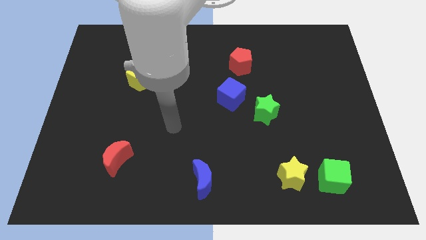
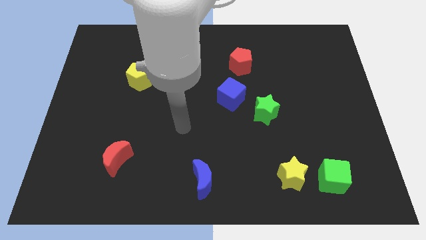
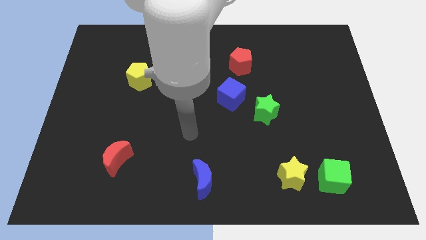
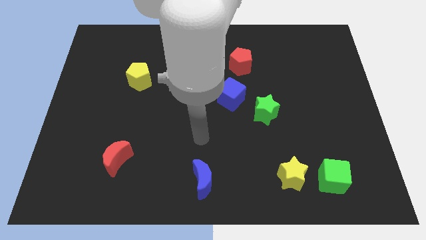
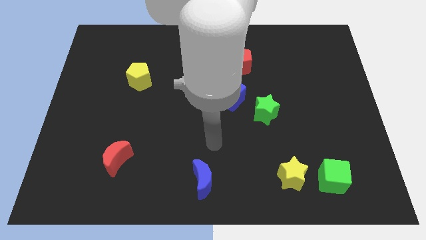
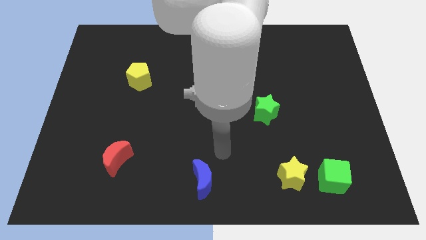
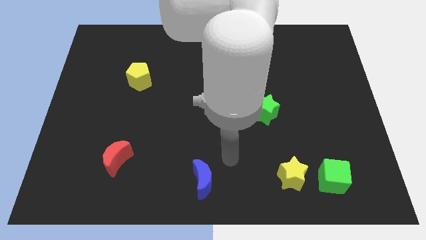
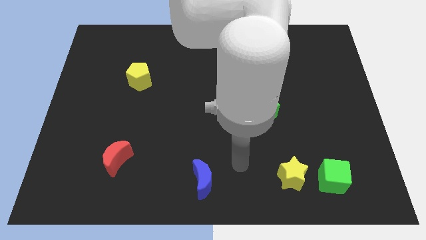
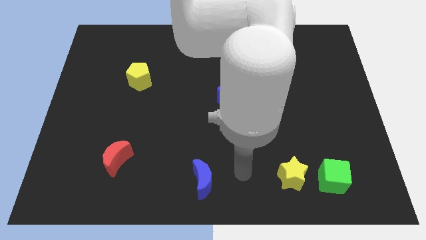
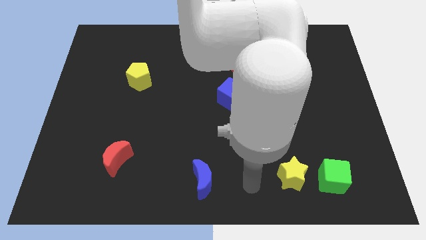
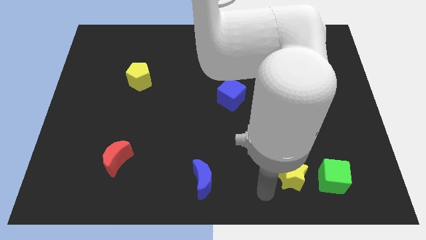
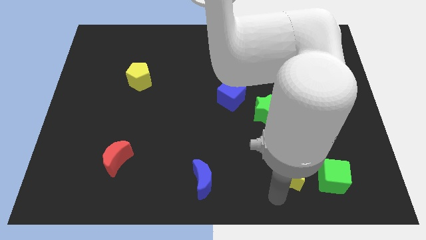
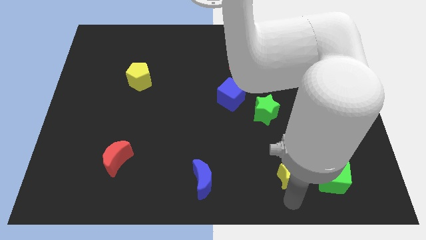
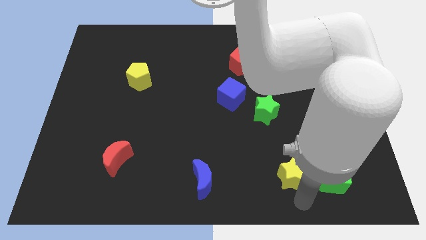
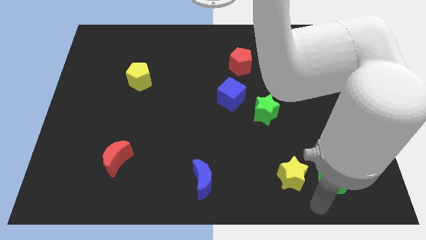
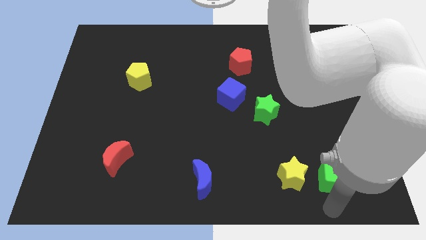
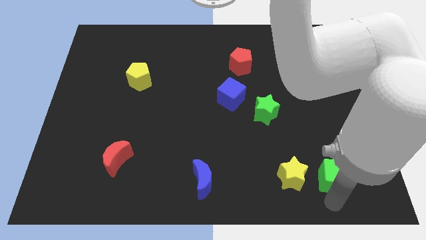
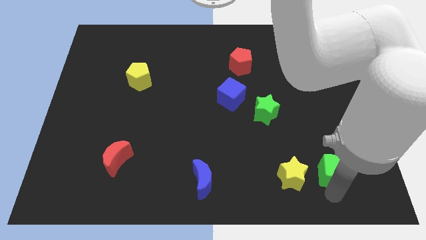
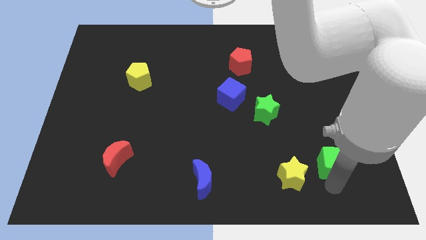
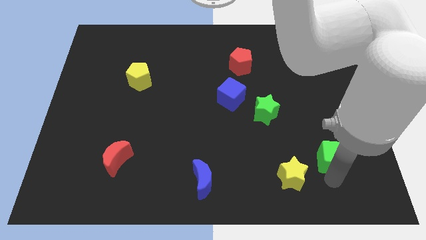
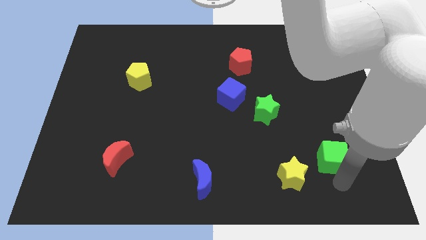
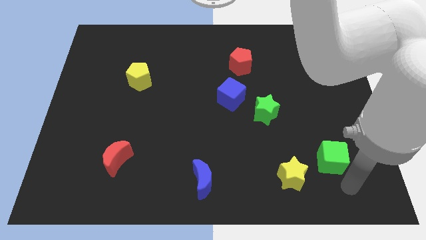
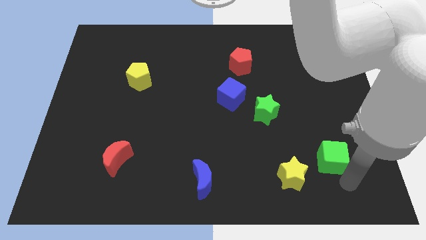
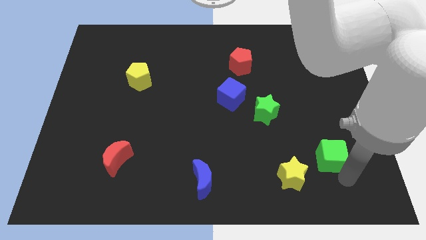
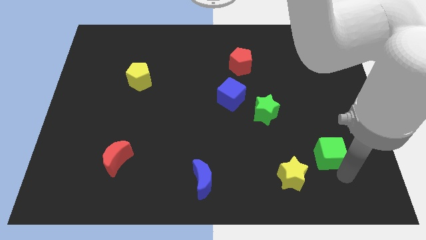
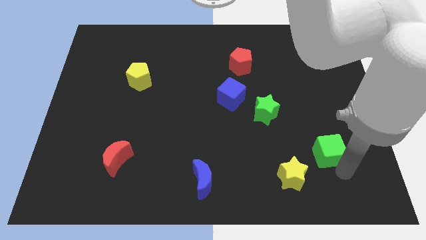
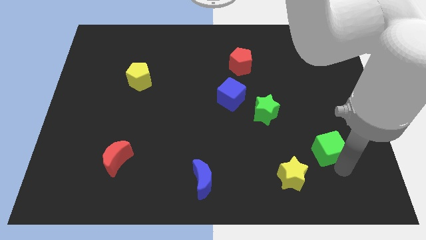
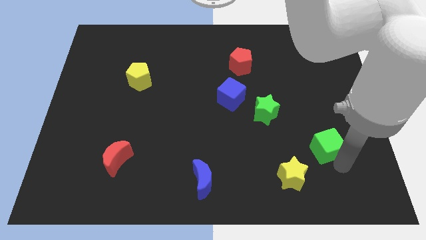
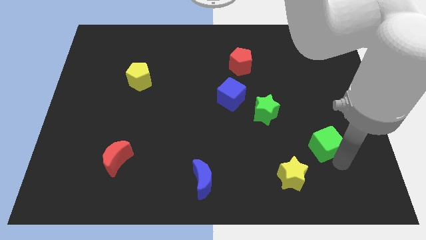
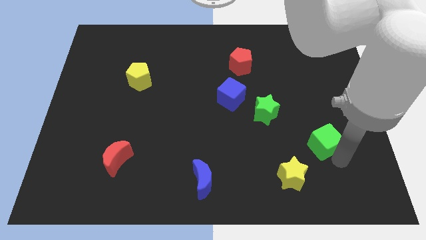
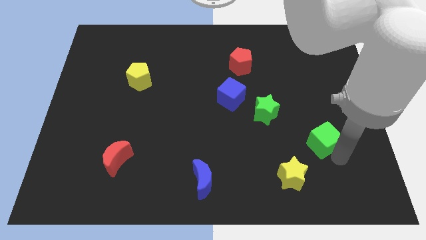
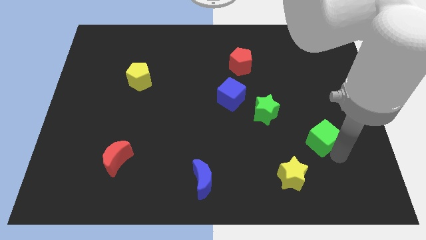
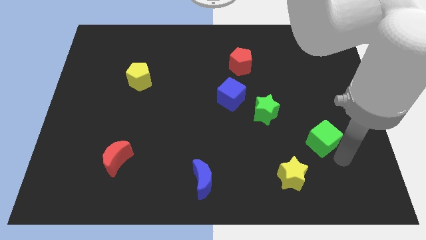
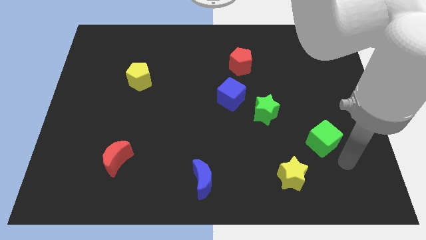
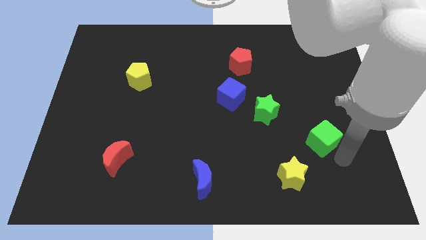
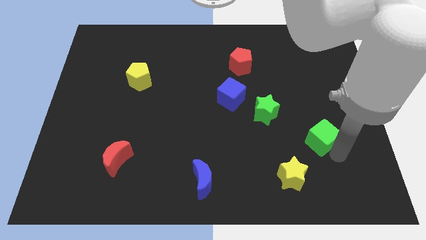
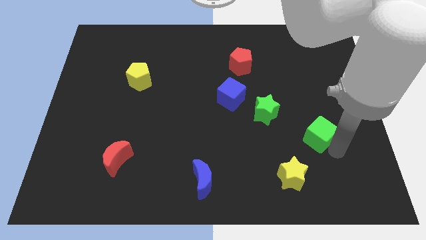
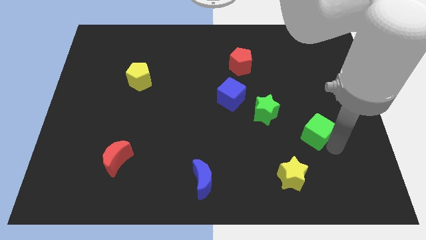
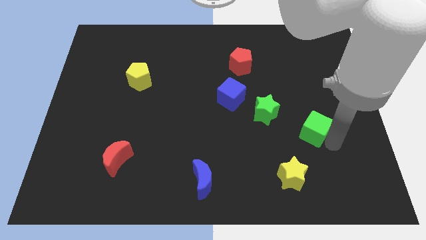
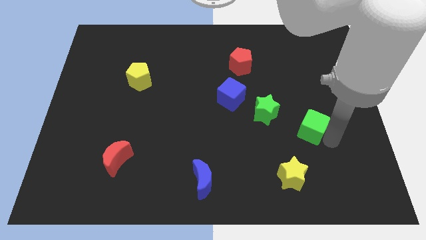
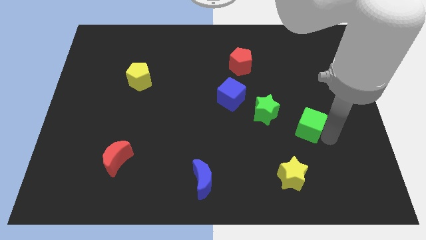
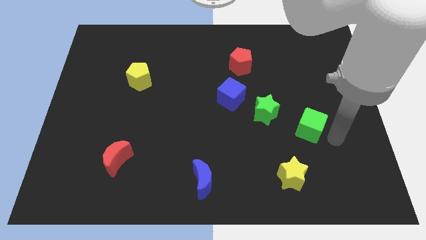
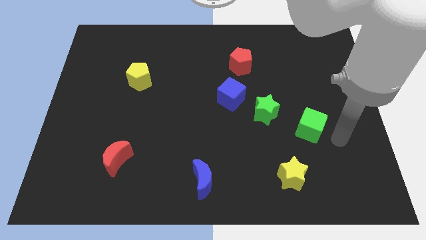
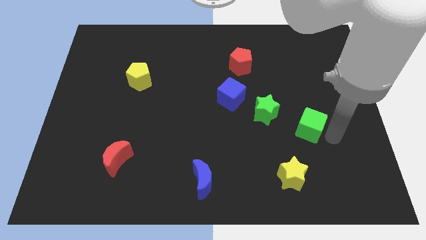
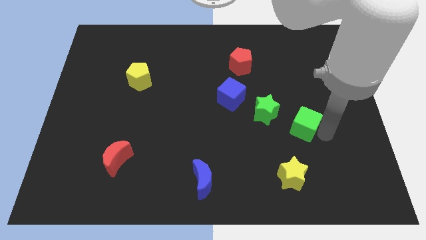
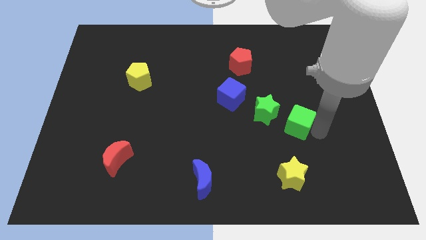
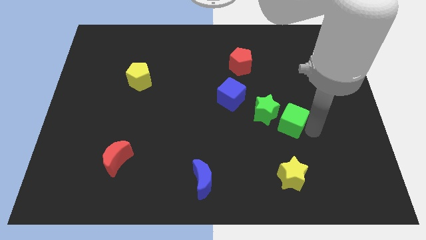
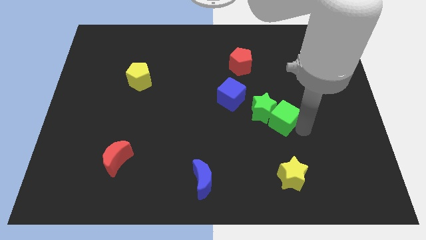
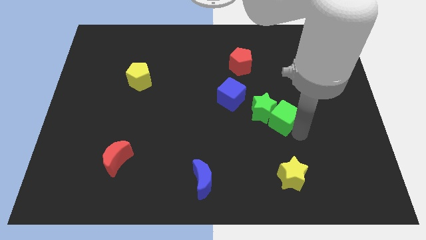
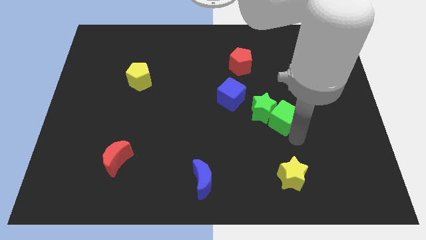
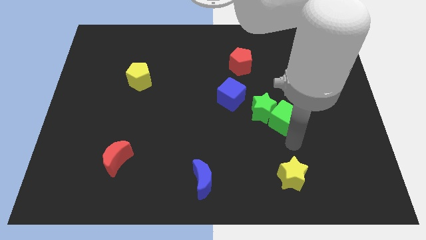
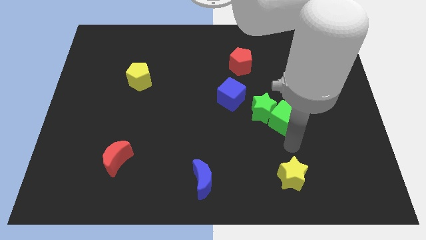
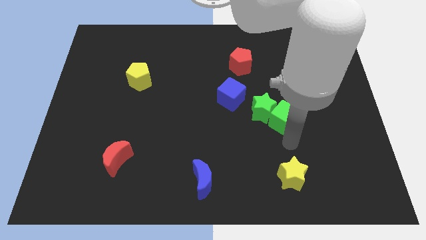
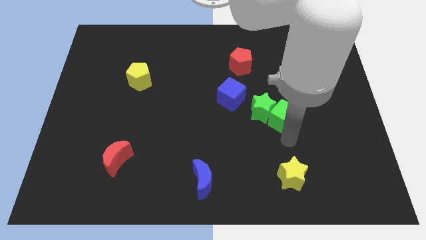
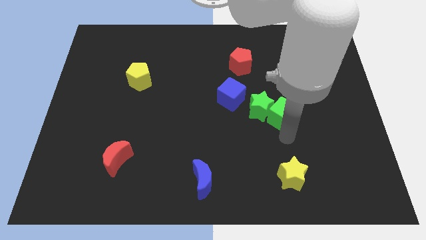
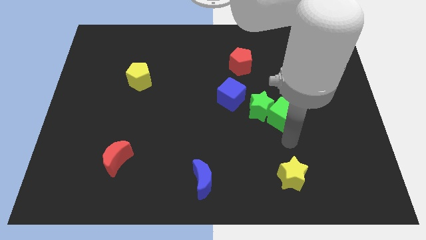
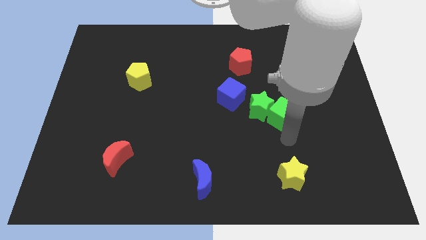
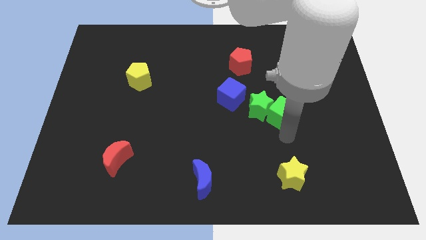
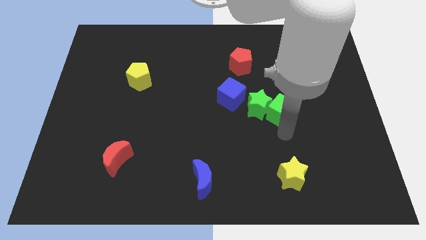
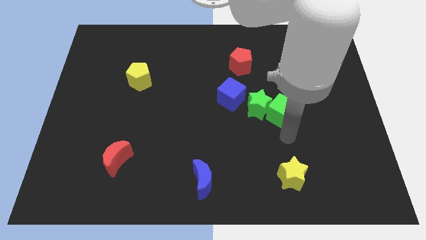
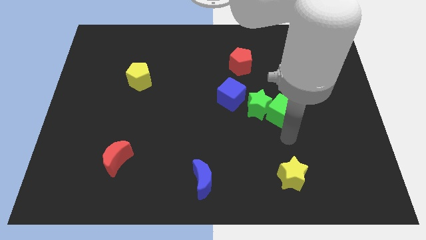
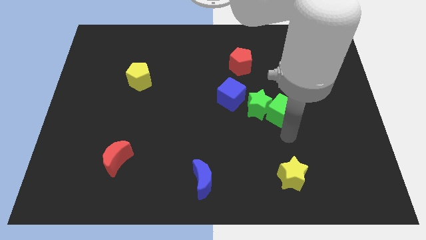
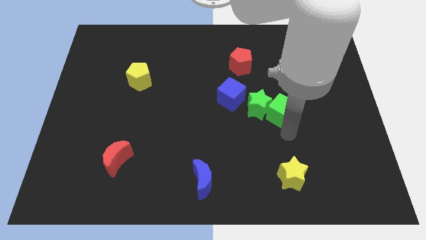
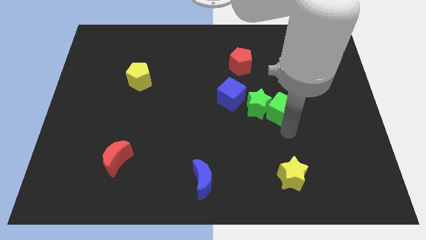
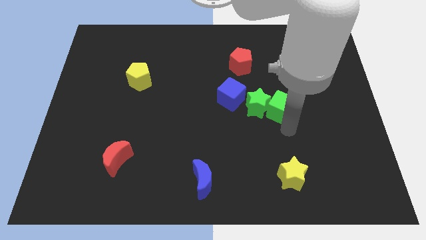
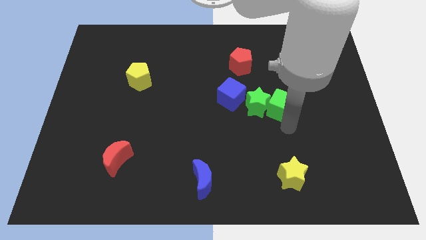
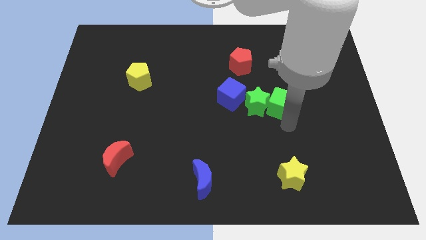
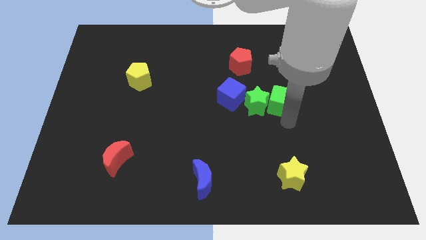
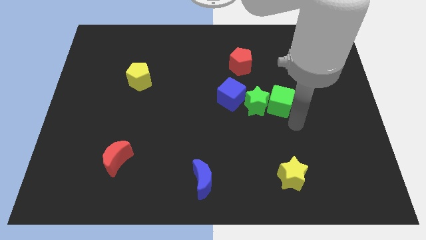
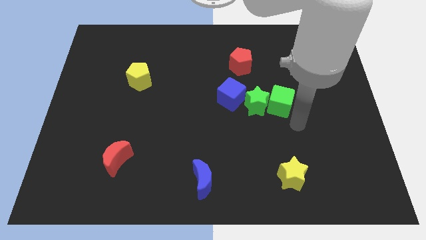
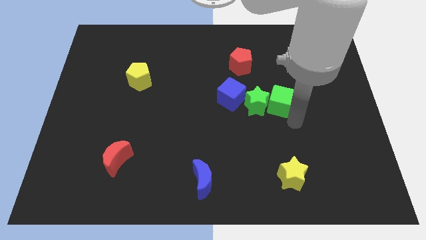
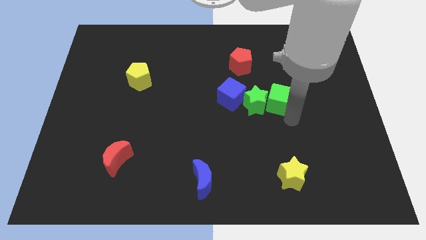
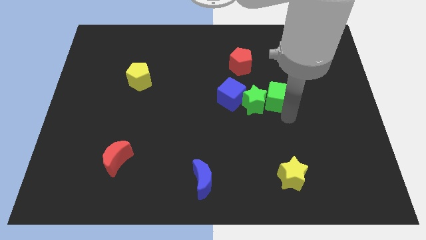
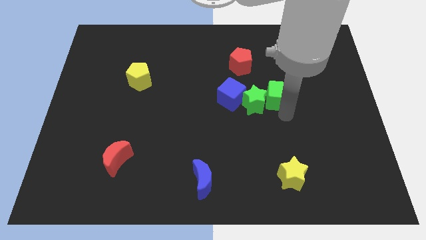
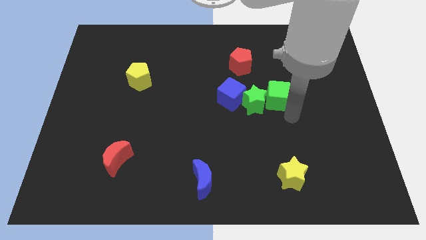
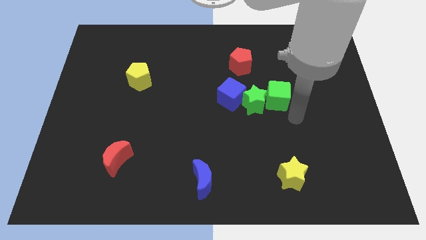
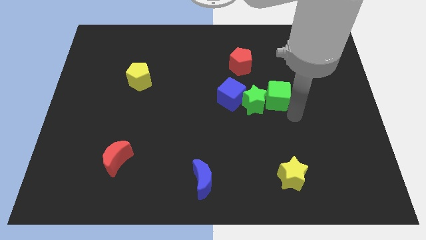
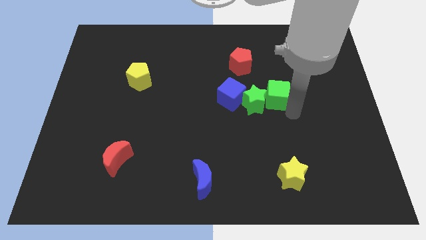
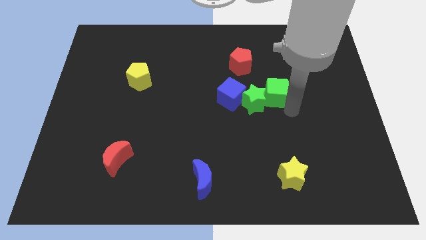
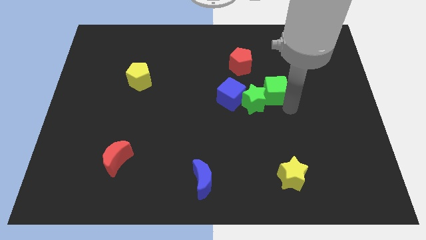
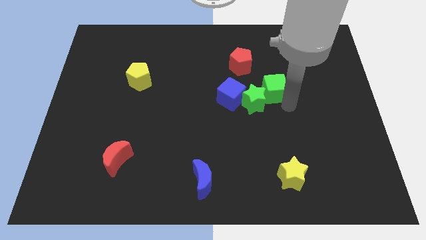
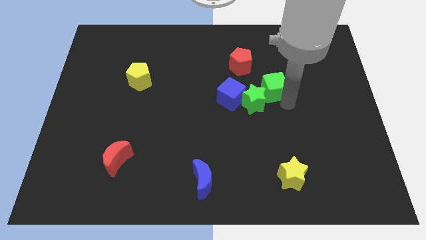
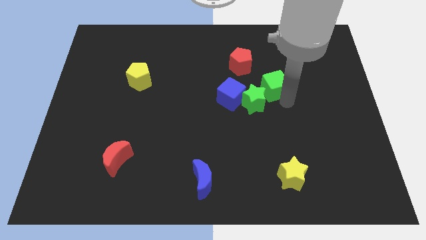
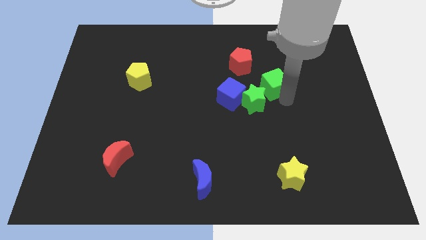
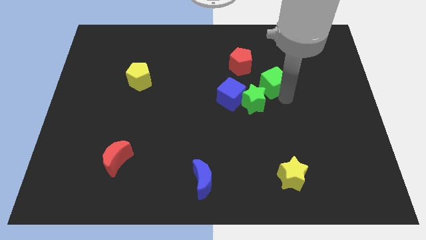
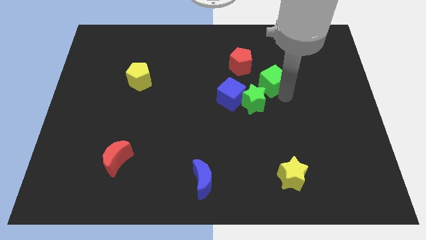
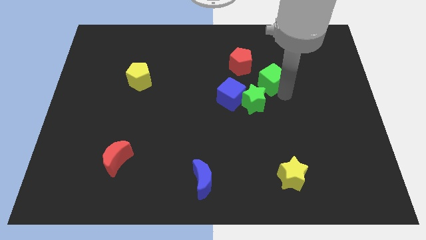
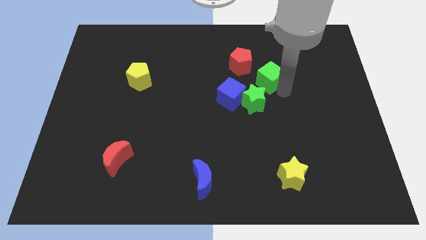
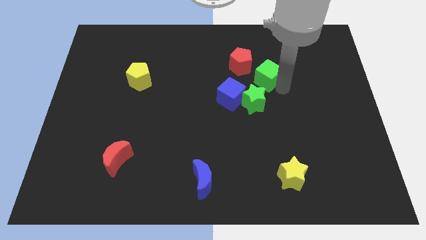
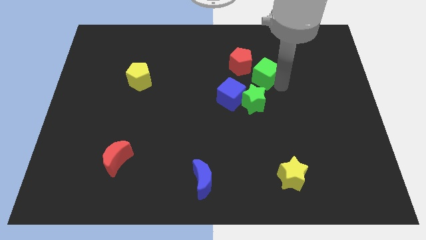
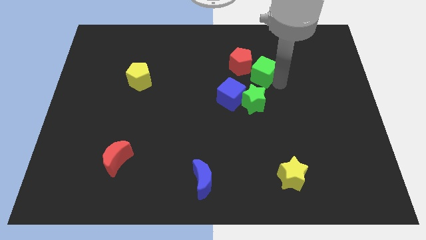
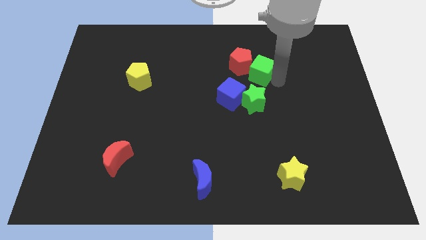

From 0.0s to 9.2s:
put the green cube close to the red pentagon
